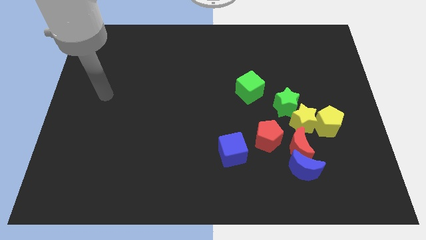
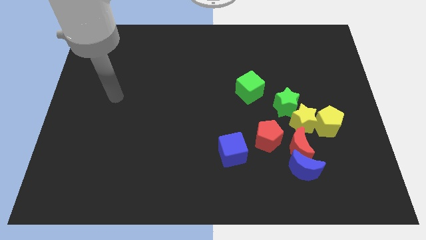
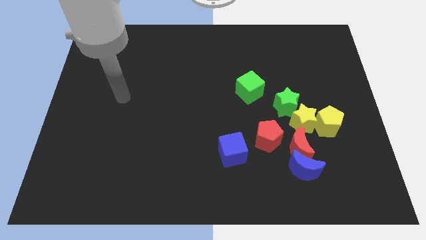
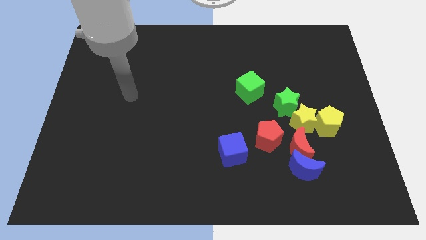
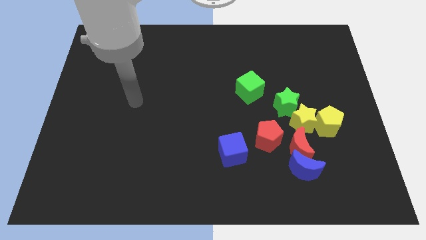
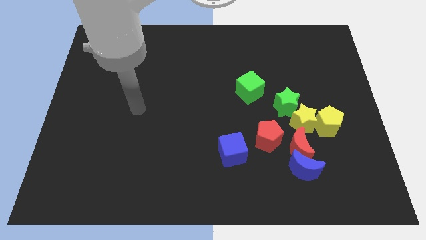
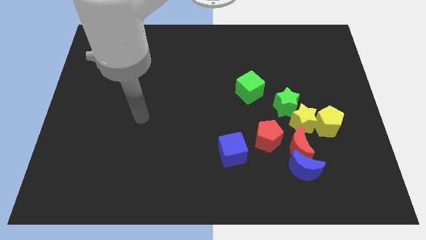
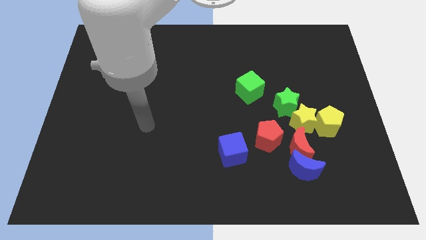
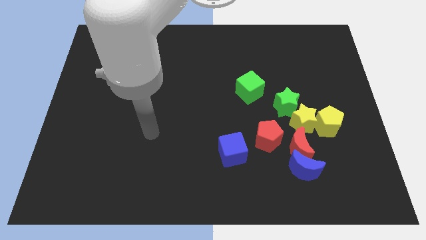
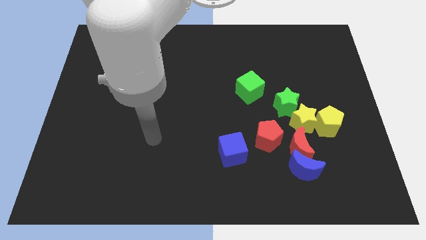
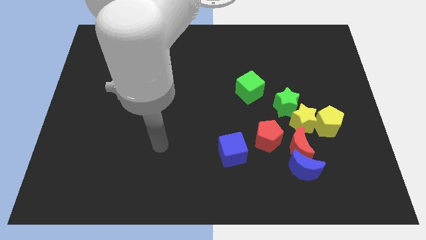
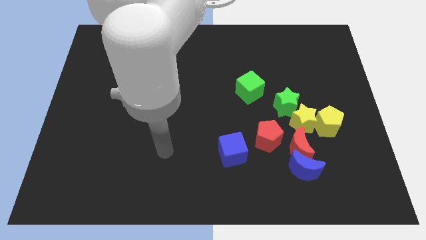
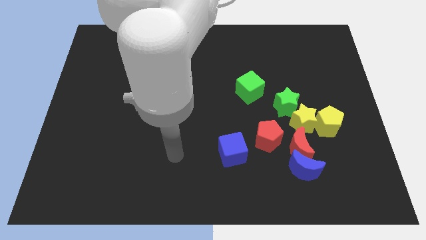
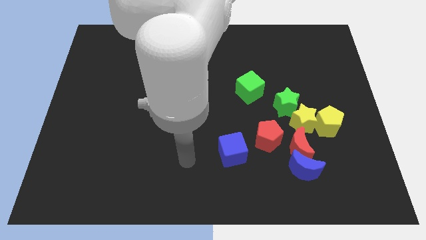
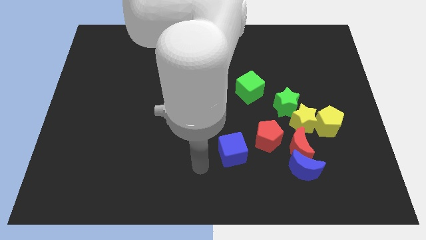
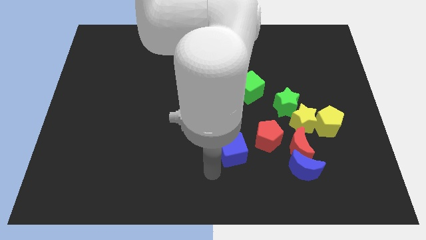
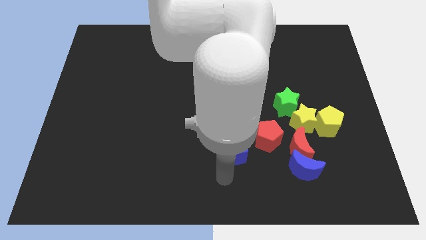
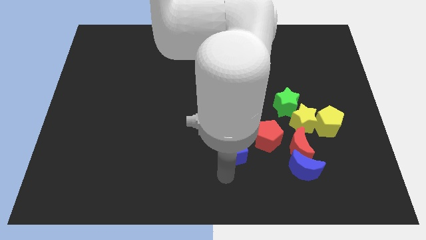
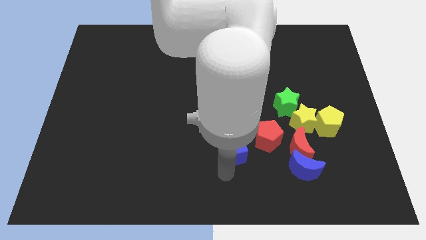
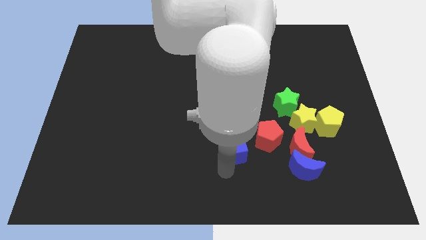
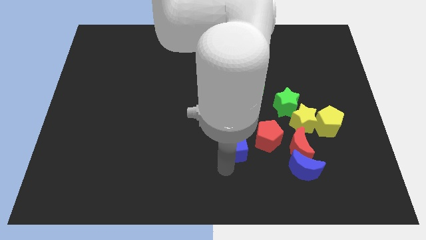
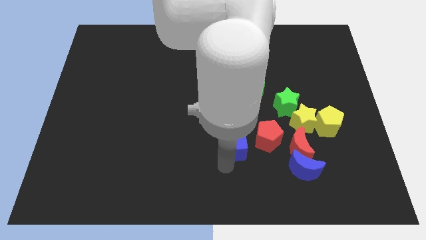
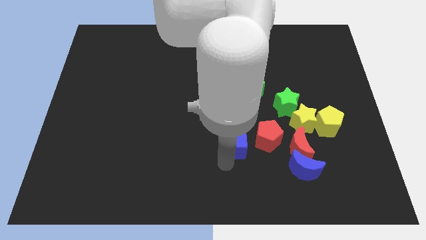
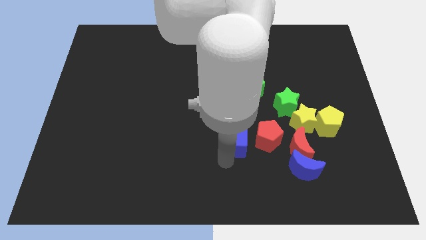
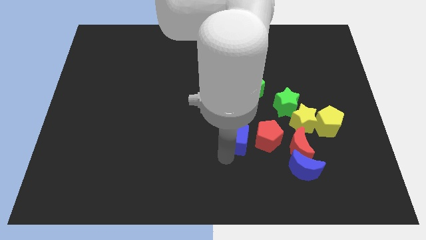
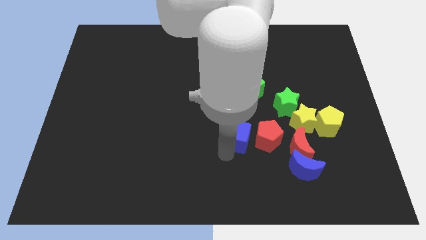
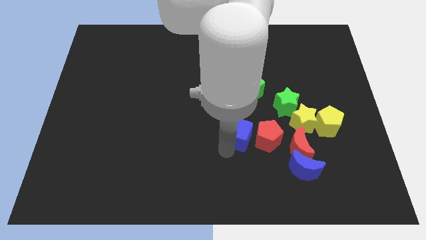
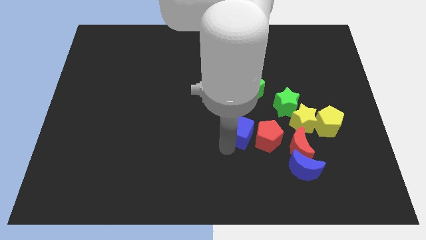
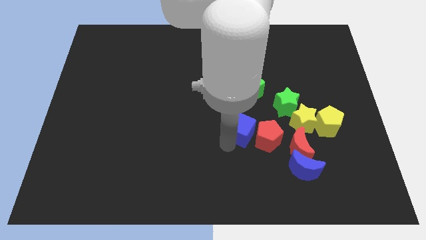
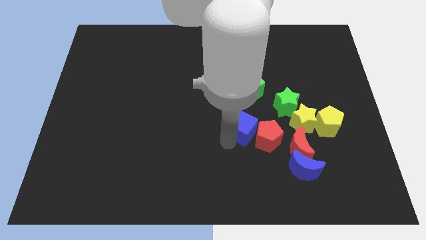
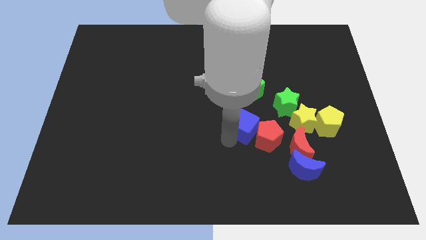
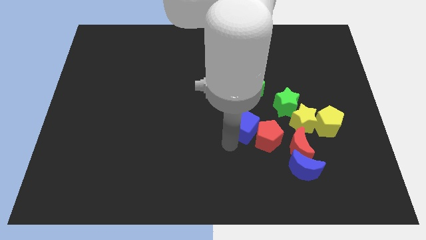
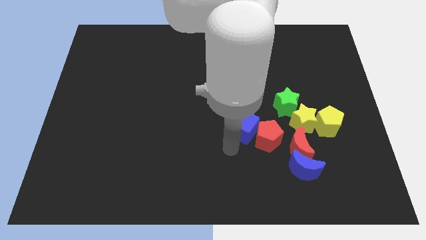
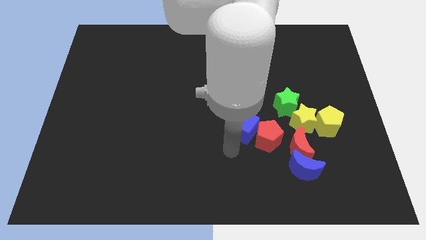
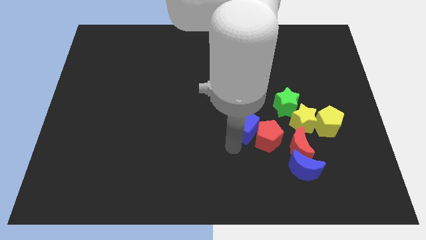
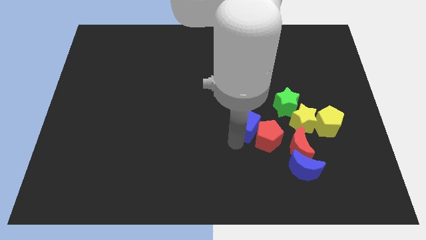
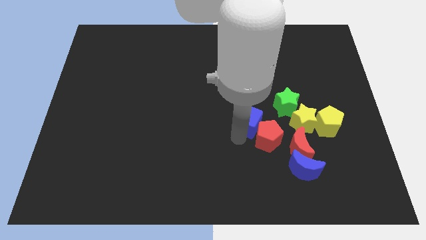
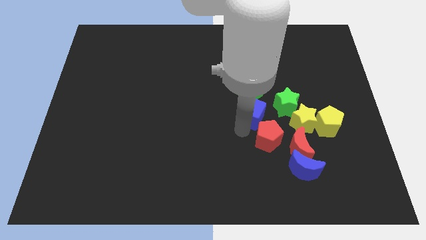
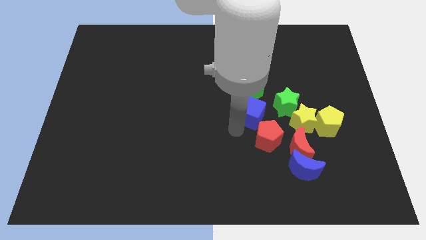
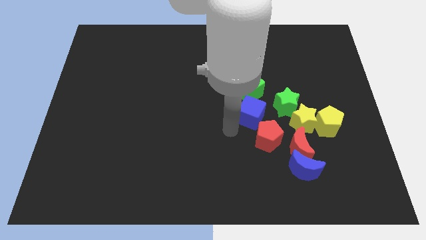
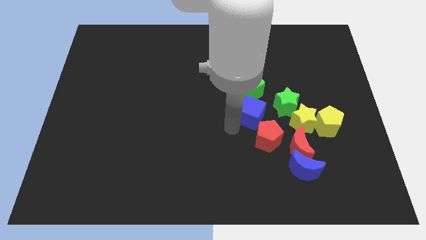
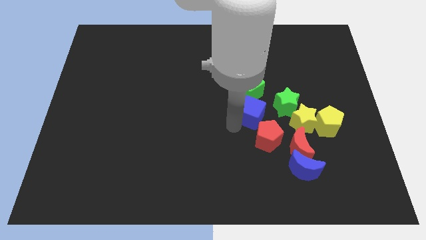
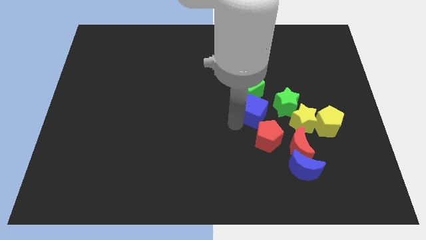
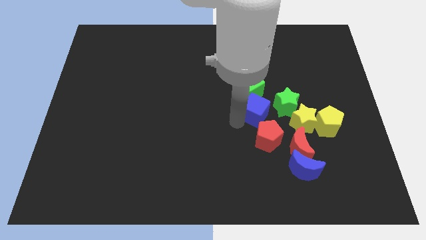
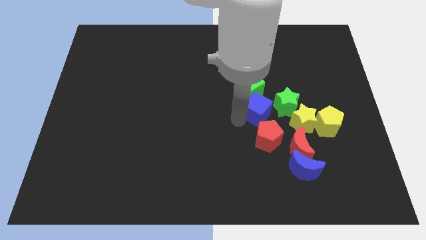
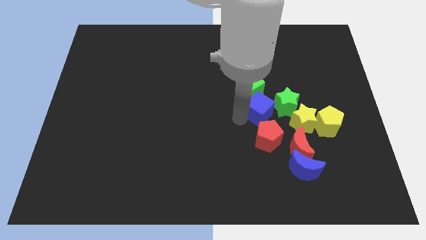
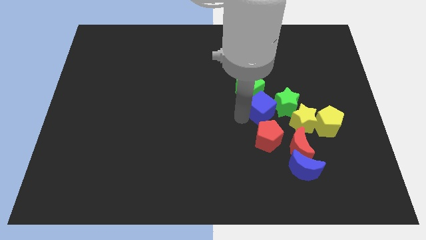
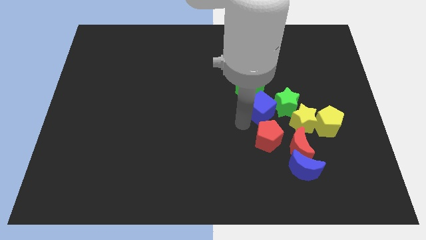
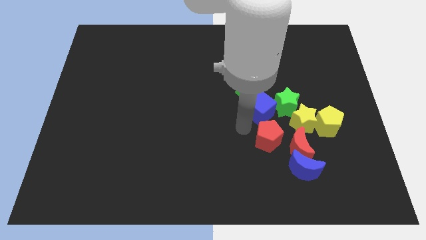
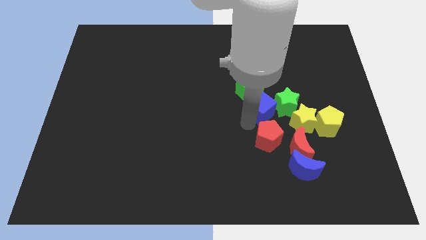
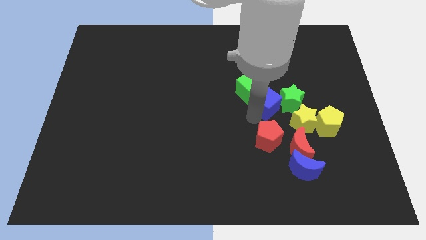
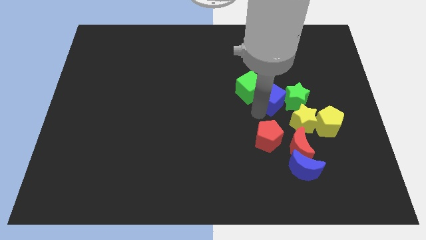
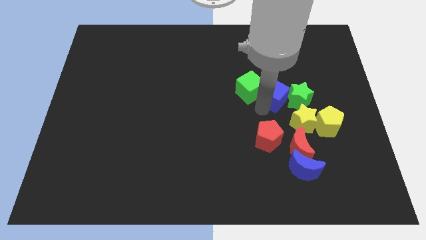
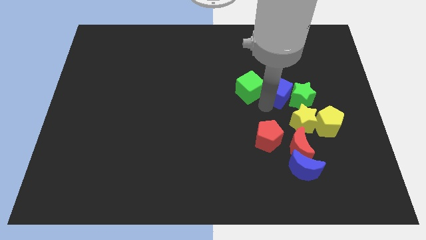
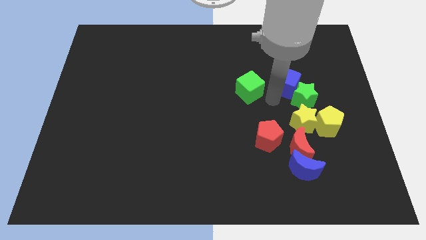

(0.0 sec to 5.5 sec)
push the blue cube to the top side of the green star

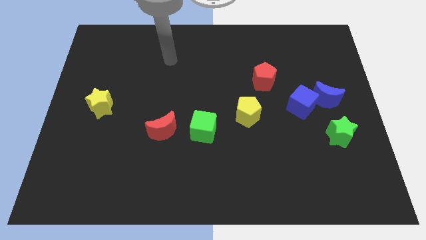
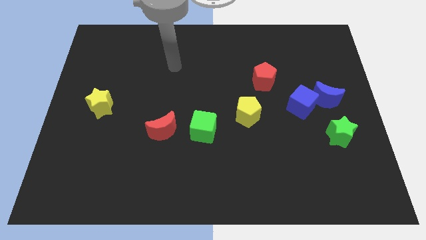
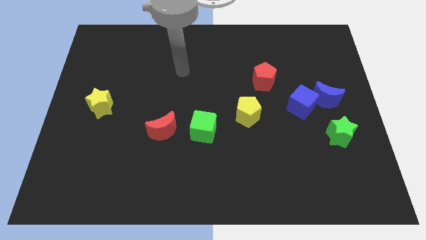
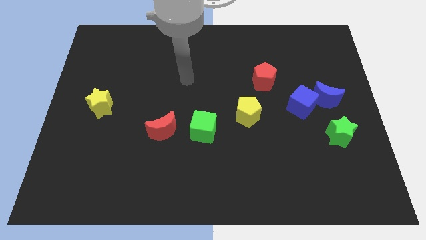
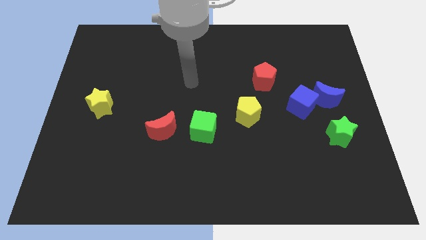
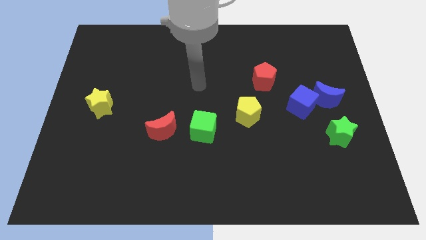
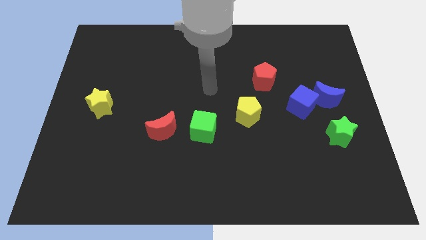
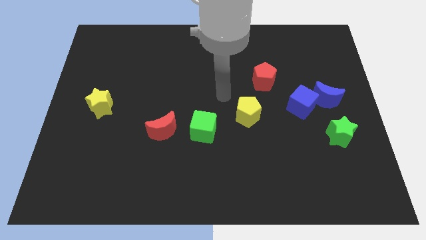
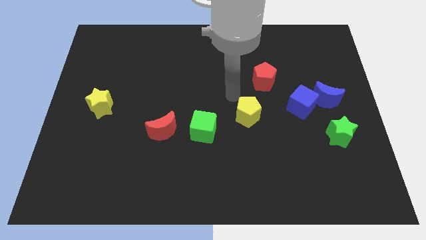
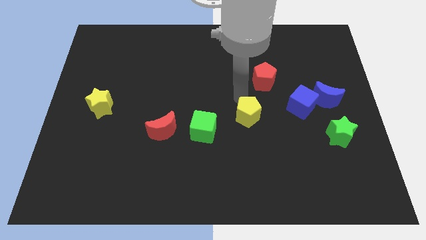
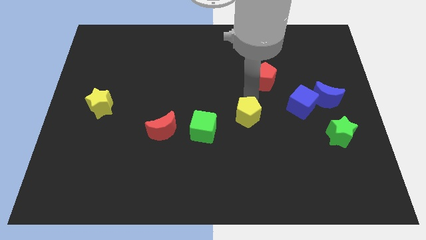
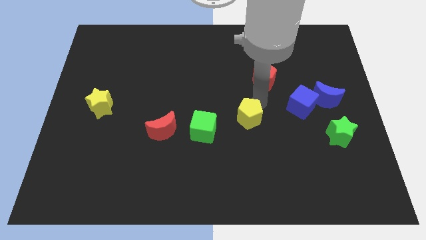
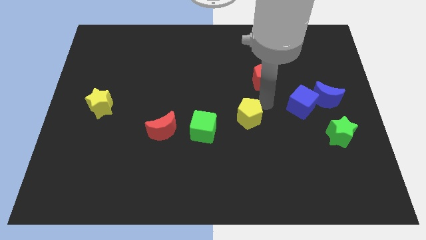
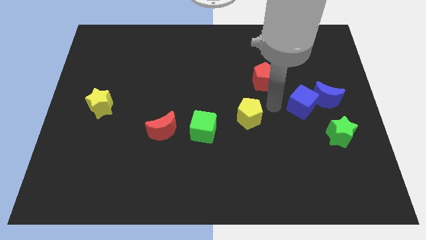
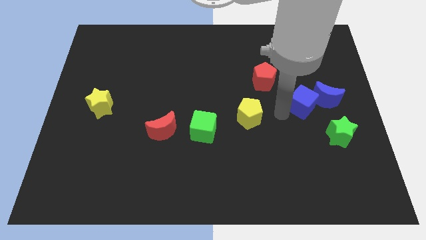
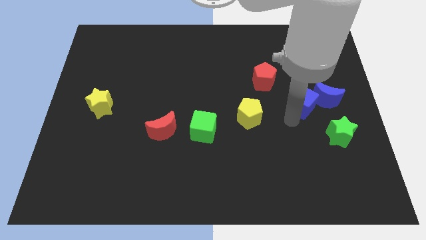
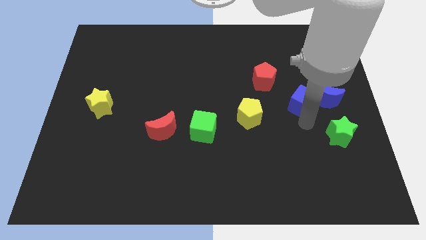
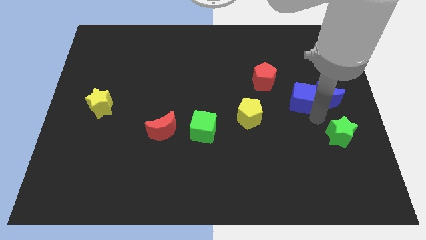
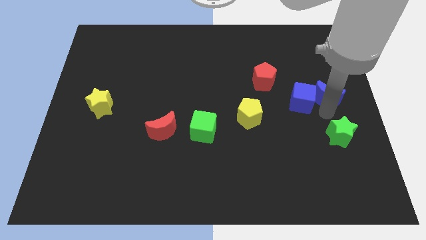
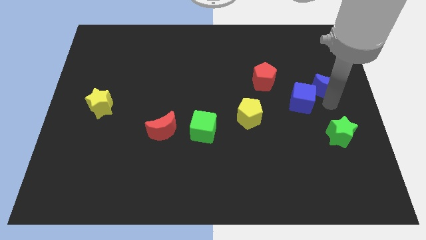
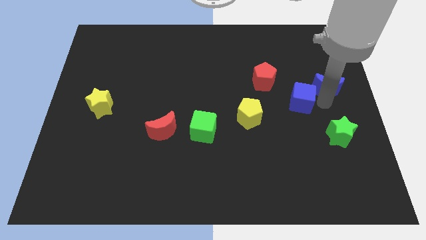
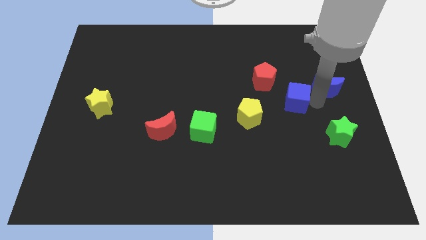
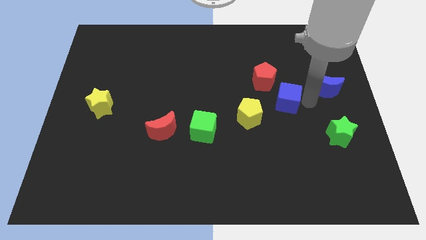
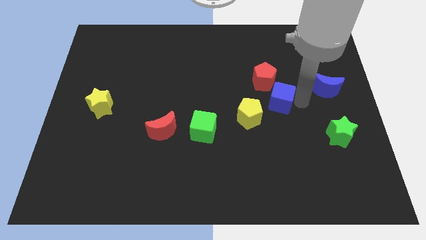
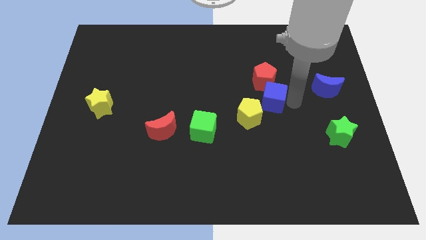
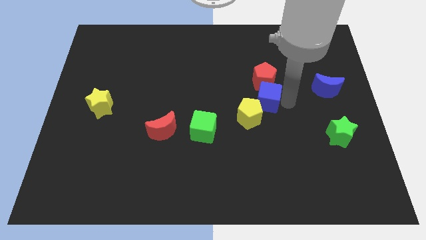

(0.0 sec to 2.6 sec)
slide the blue cube to the top of the yellow pentagon
